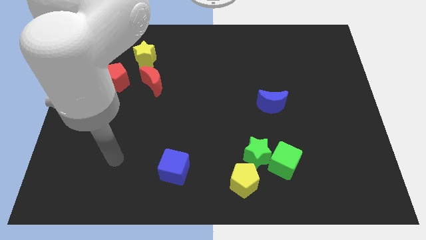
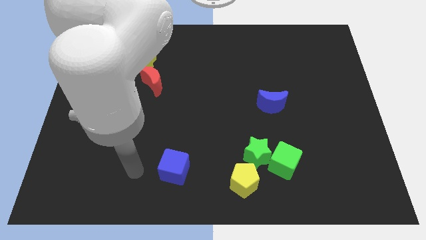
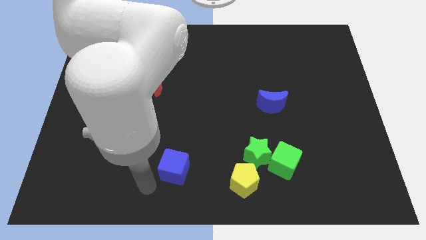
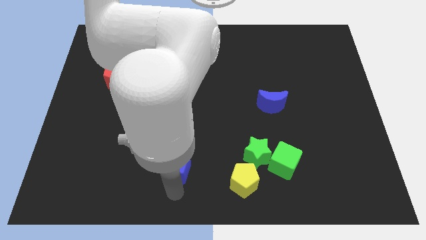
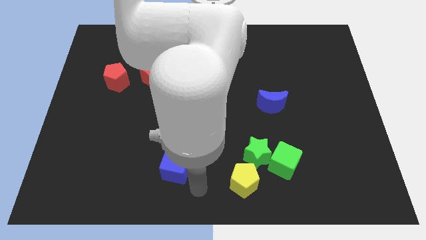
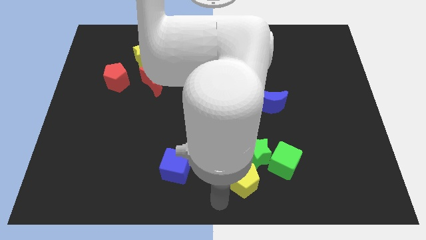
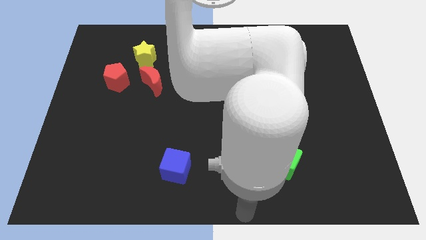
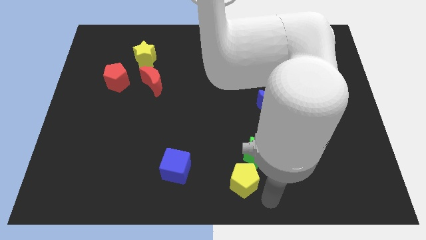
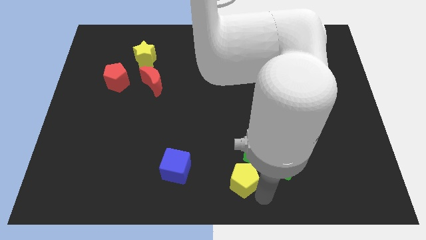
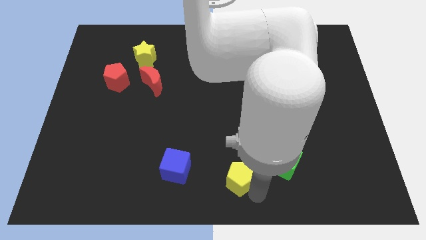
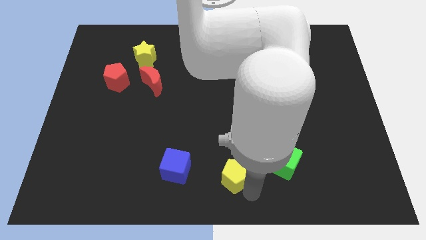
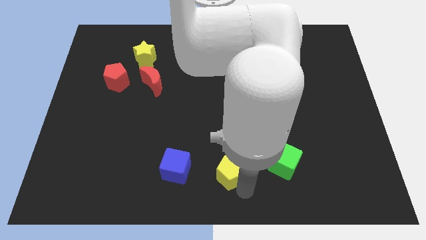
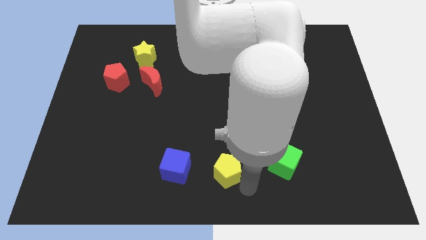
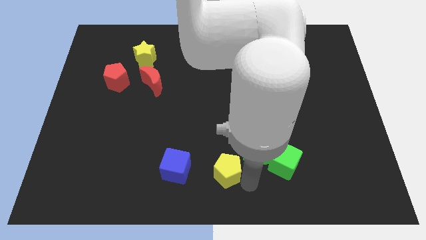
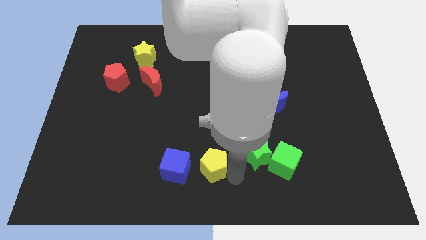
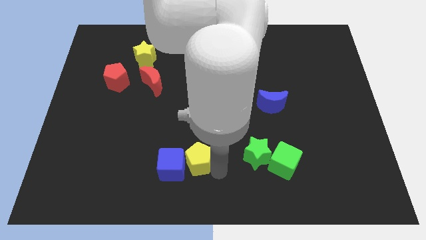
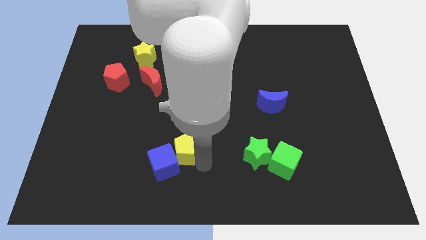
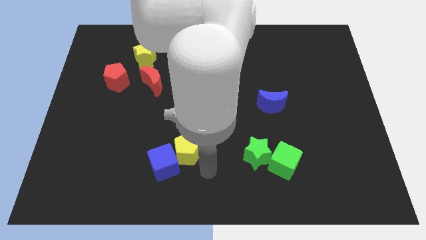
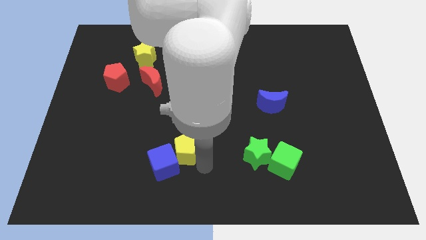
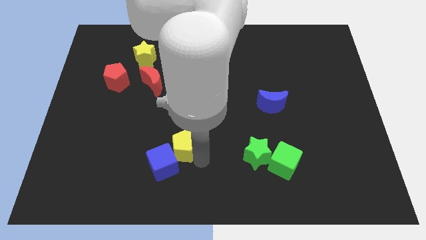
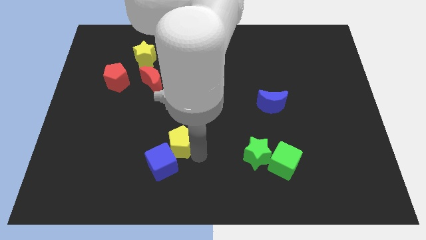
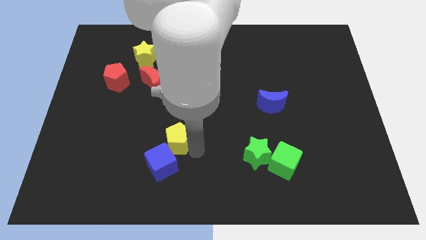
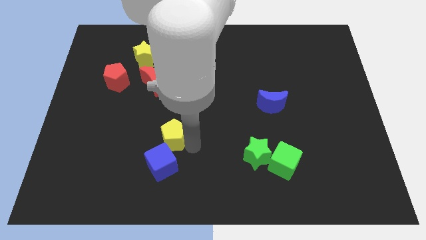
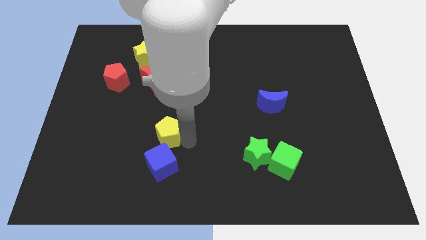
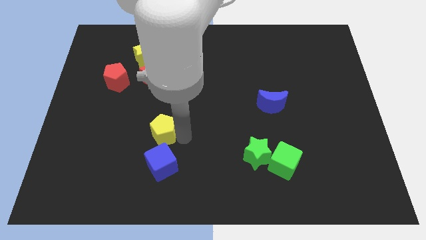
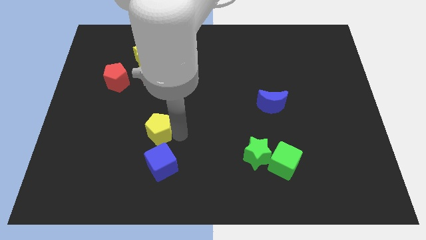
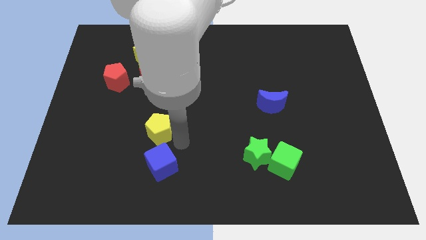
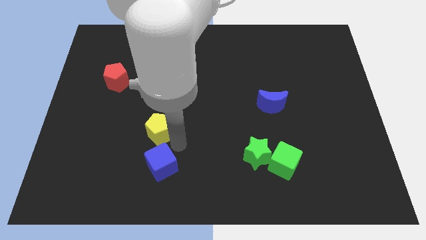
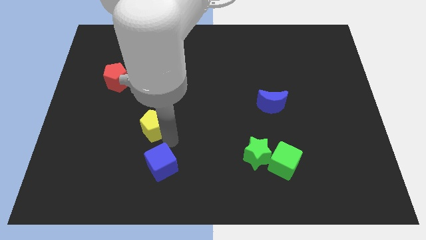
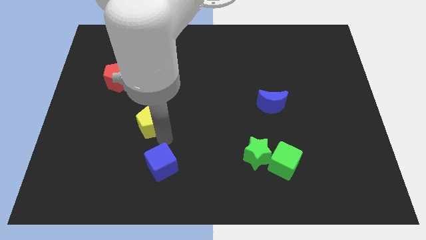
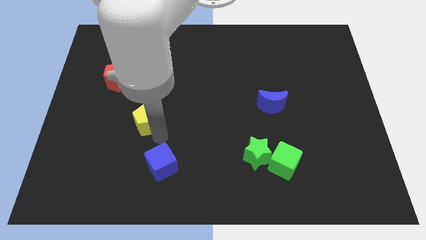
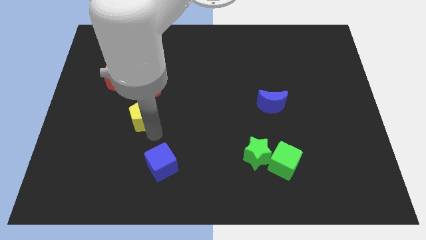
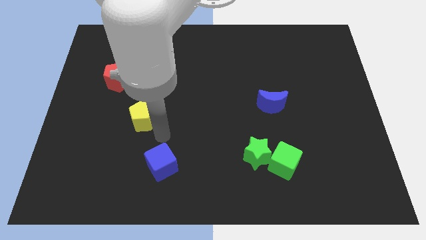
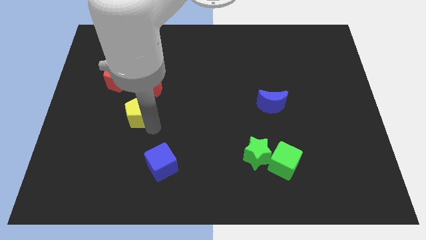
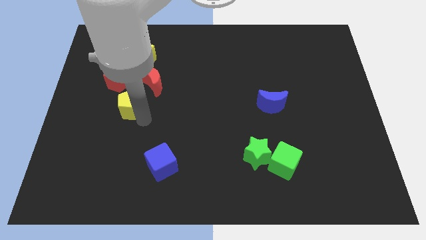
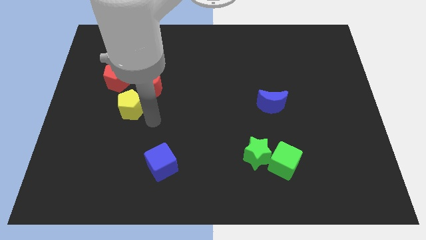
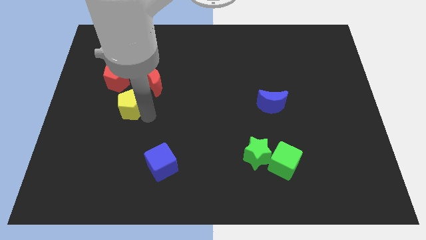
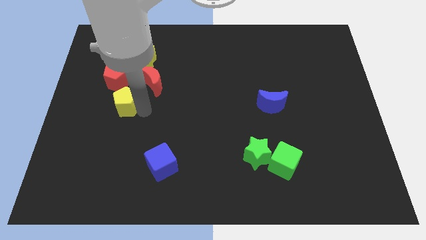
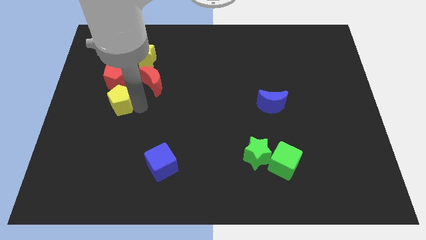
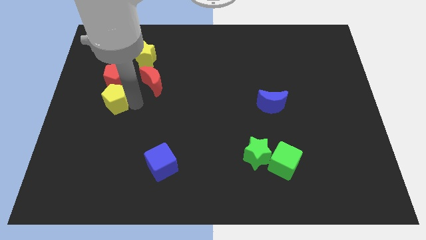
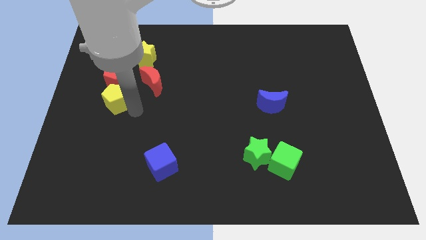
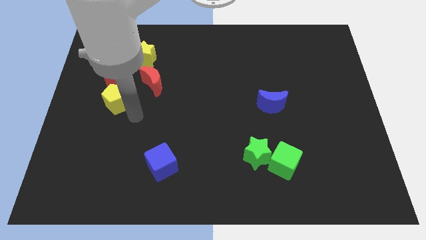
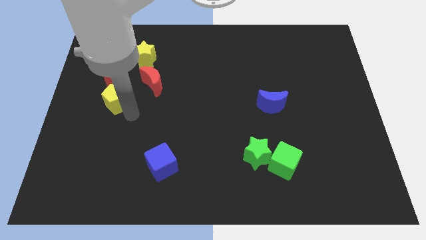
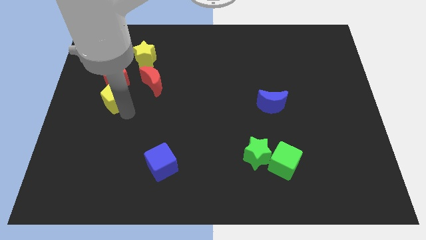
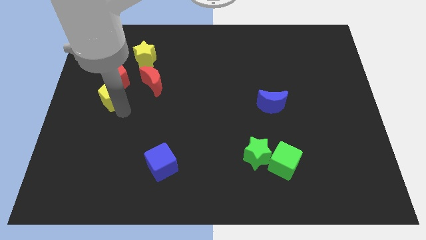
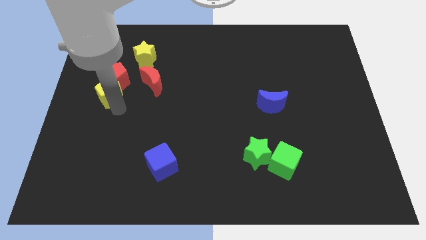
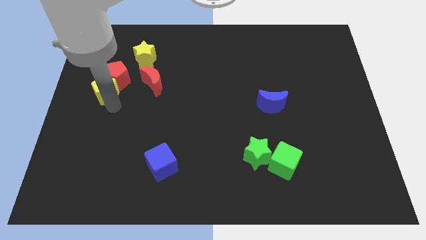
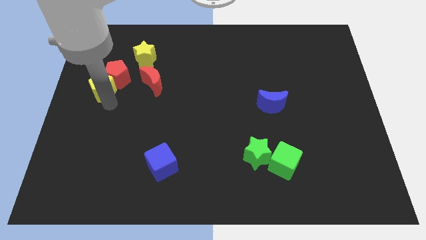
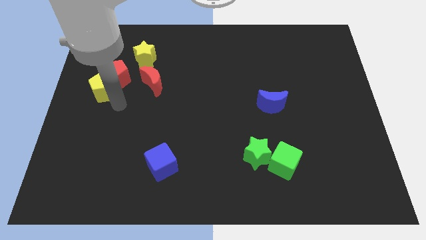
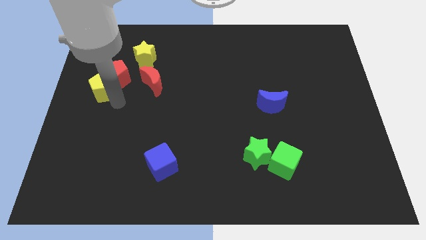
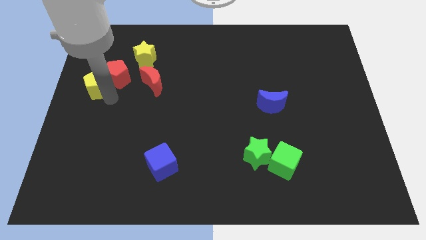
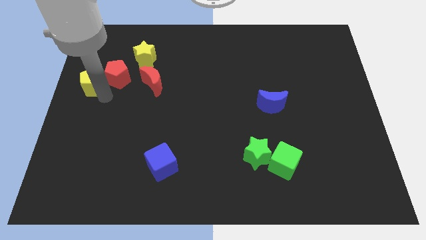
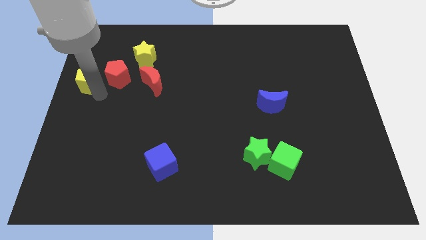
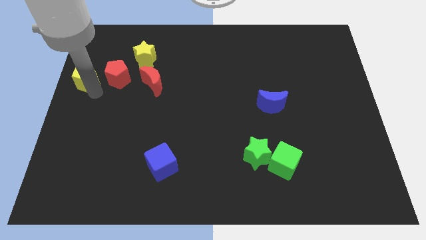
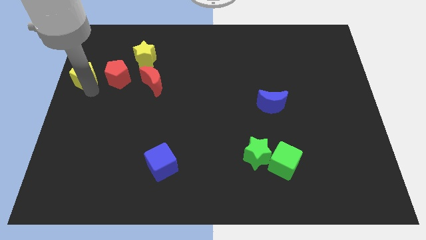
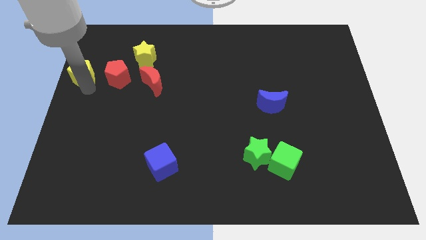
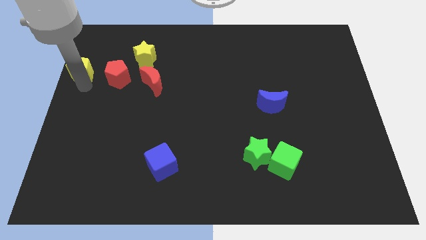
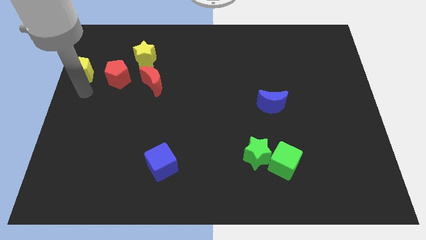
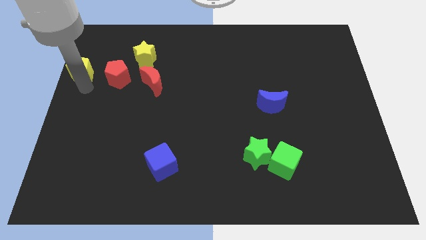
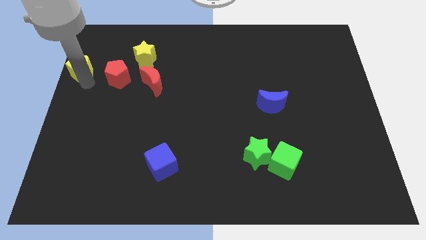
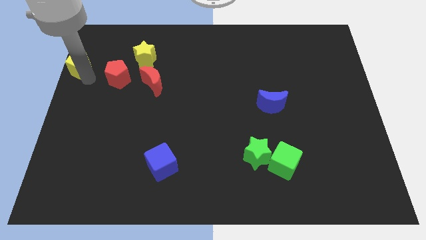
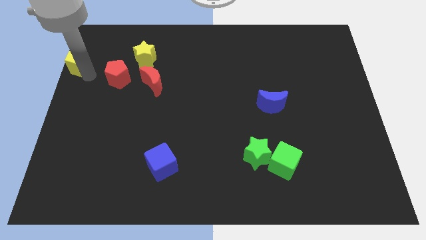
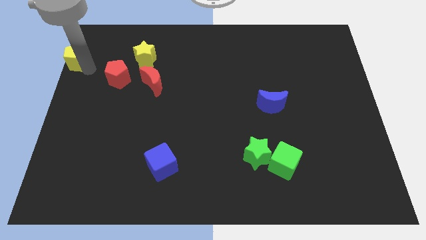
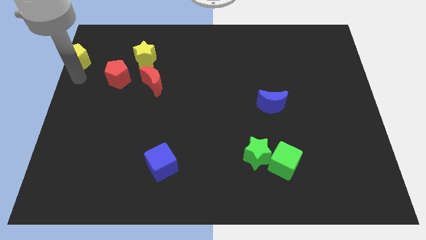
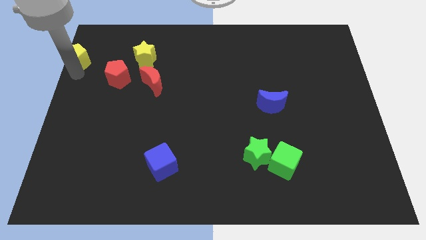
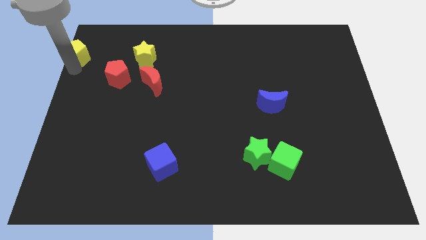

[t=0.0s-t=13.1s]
move the yellow pentagon to the top left corner
